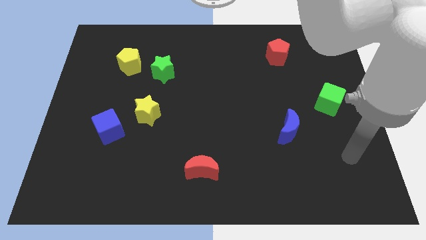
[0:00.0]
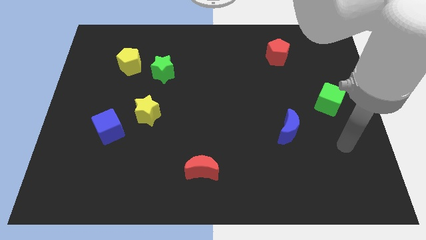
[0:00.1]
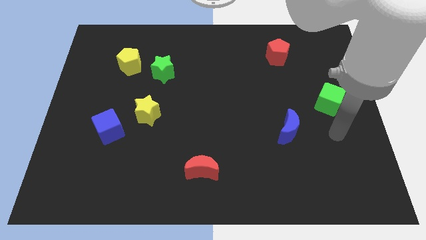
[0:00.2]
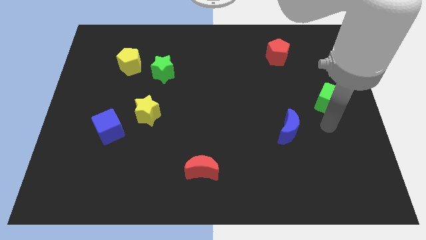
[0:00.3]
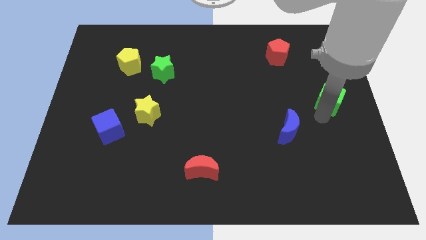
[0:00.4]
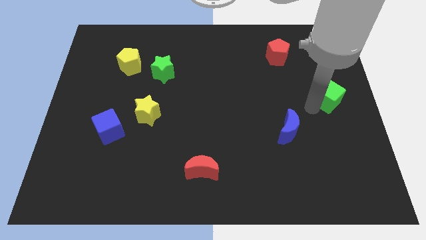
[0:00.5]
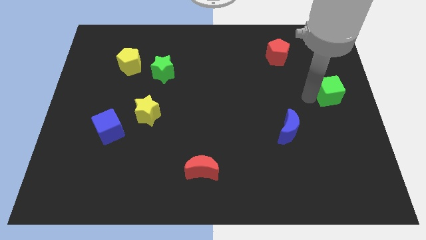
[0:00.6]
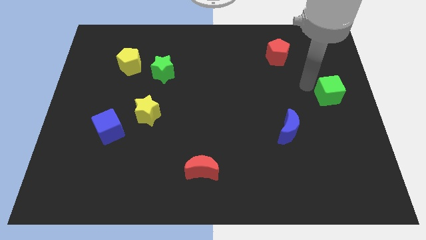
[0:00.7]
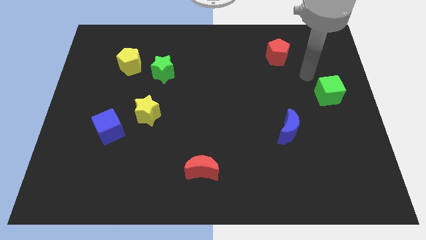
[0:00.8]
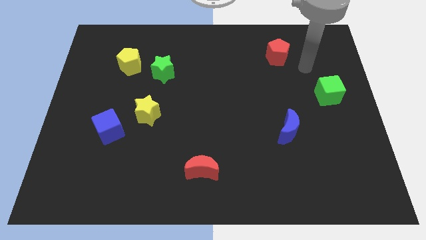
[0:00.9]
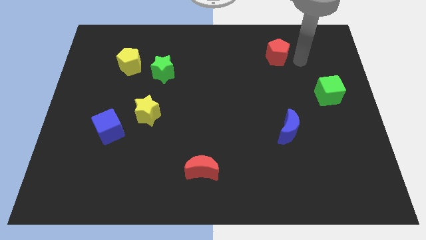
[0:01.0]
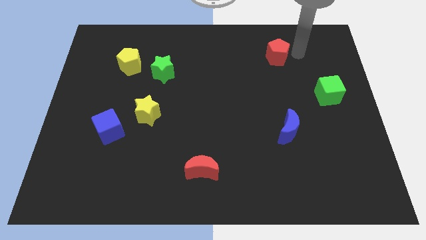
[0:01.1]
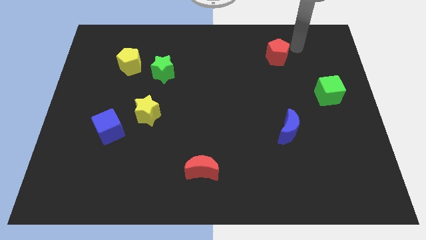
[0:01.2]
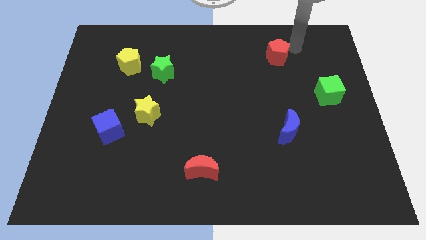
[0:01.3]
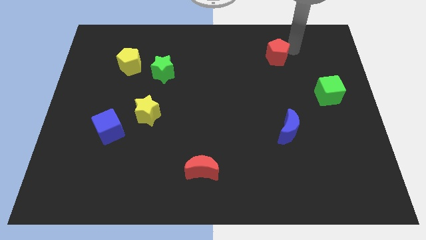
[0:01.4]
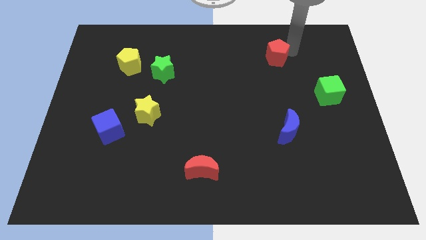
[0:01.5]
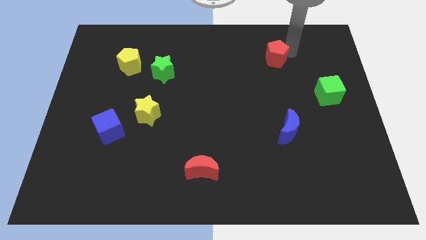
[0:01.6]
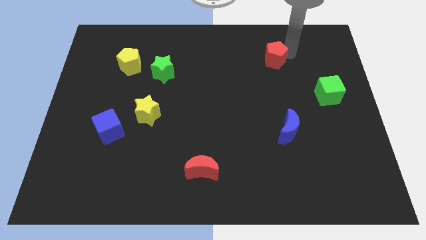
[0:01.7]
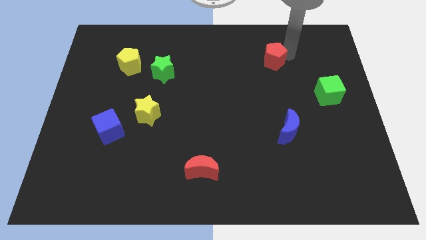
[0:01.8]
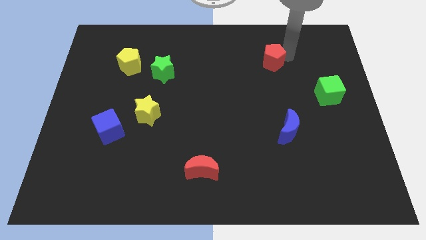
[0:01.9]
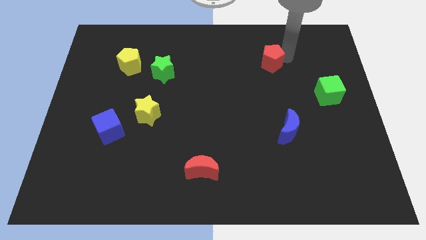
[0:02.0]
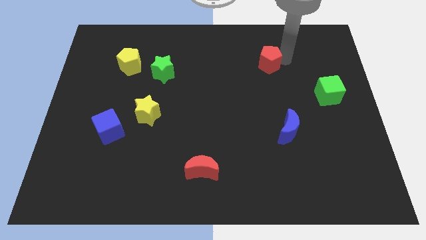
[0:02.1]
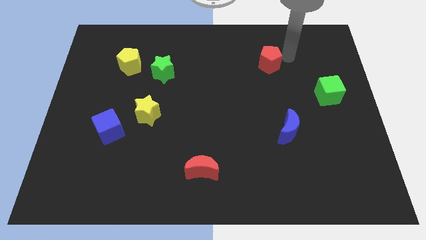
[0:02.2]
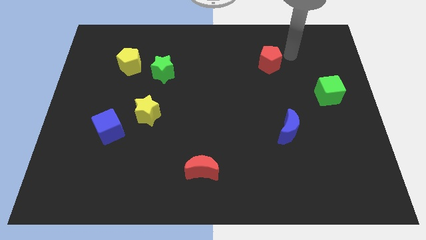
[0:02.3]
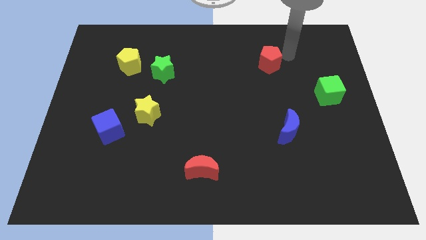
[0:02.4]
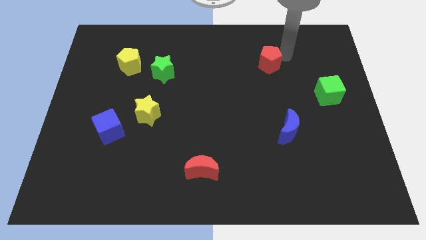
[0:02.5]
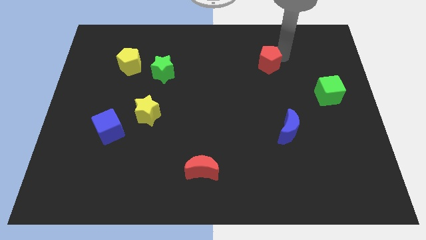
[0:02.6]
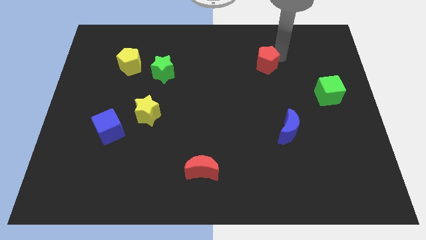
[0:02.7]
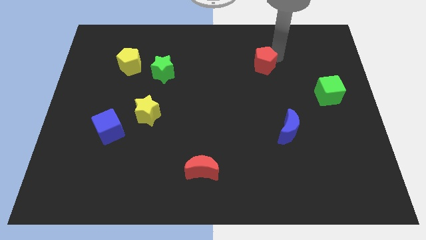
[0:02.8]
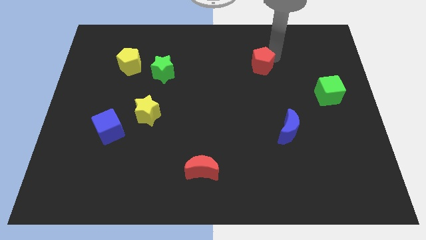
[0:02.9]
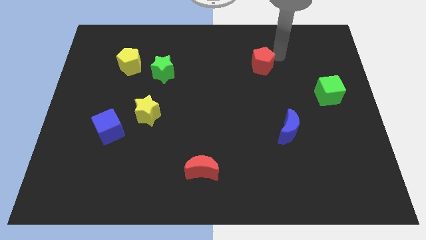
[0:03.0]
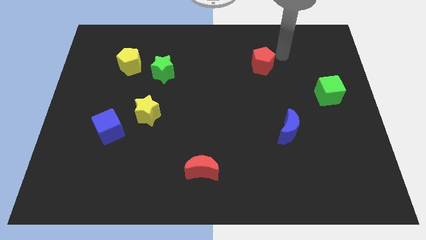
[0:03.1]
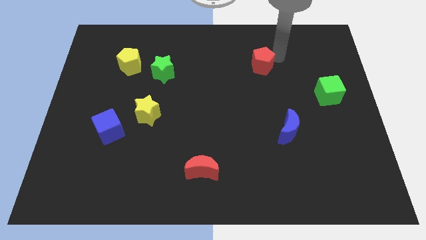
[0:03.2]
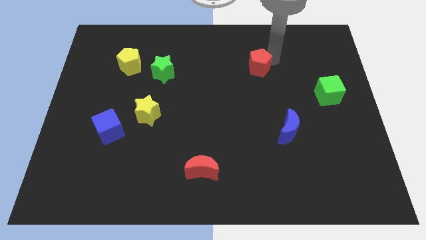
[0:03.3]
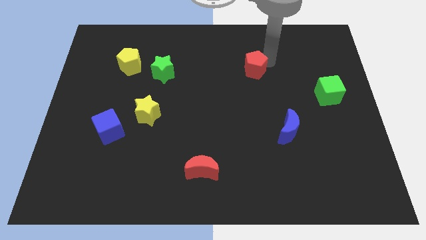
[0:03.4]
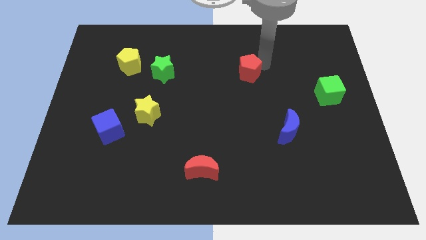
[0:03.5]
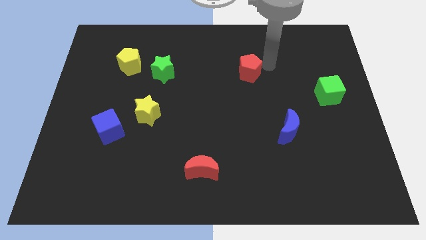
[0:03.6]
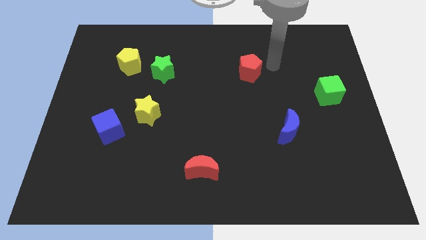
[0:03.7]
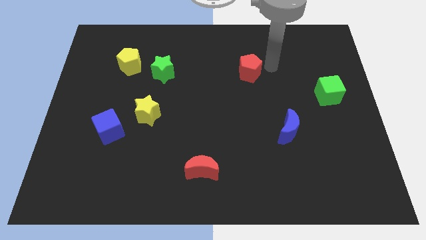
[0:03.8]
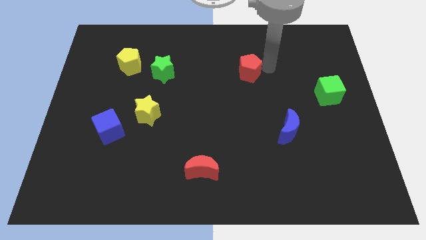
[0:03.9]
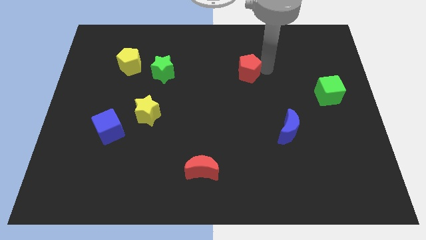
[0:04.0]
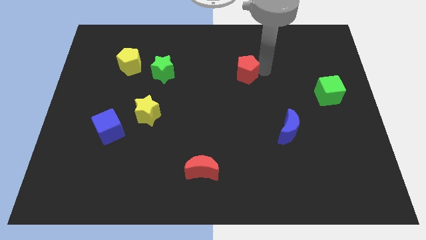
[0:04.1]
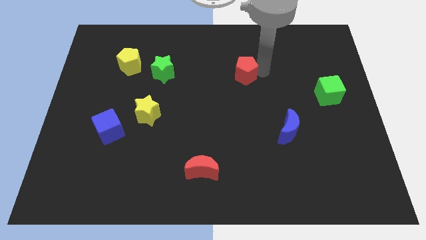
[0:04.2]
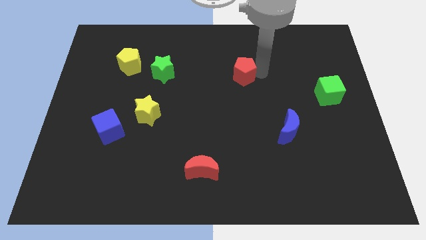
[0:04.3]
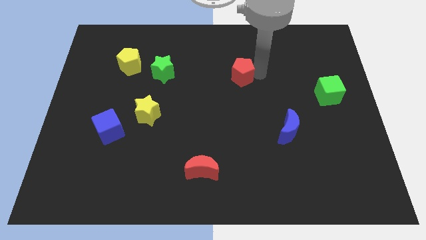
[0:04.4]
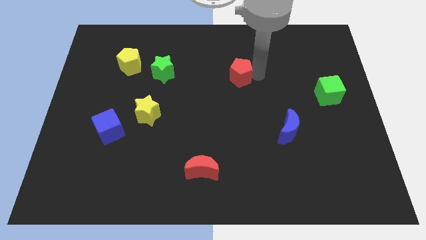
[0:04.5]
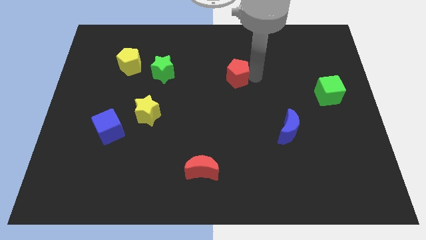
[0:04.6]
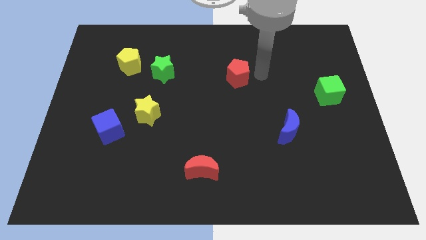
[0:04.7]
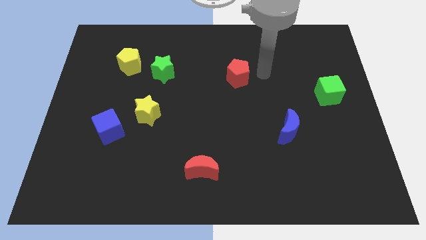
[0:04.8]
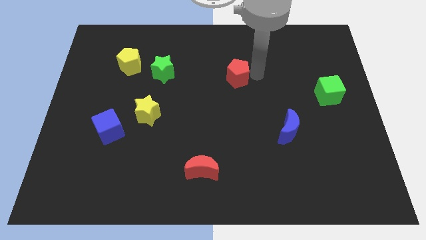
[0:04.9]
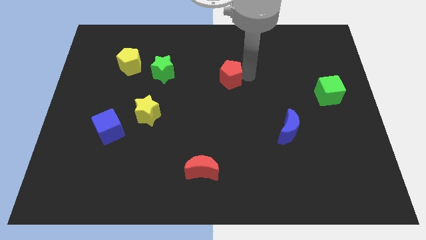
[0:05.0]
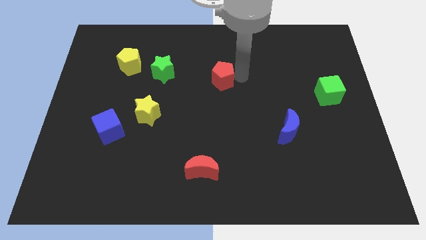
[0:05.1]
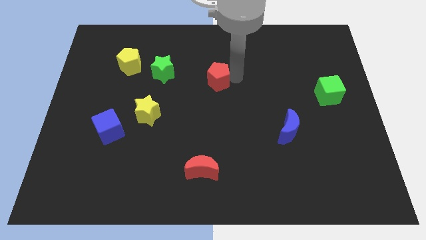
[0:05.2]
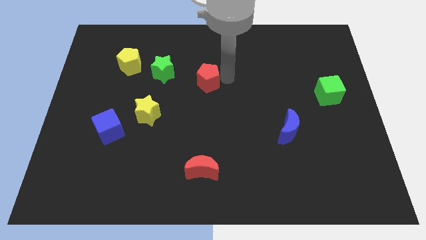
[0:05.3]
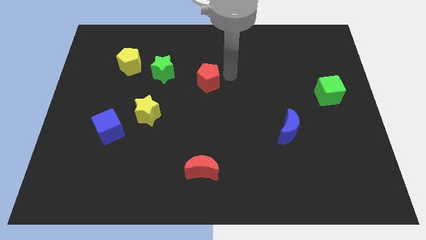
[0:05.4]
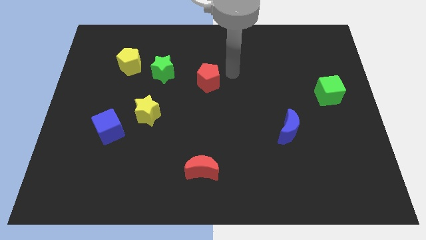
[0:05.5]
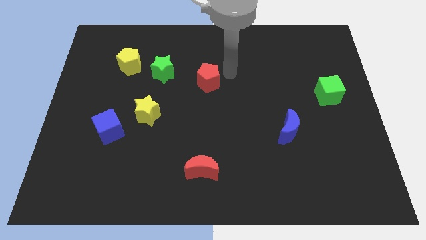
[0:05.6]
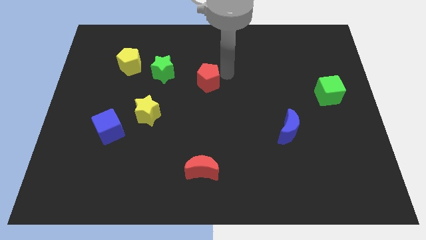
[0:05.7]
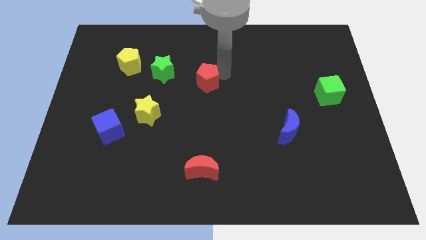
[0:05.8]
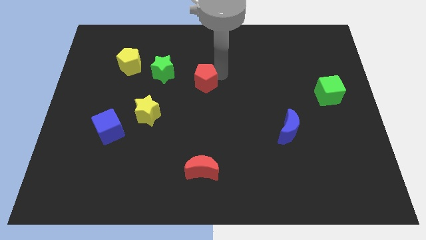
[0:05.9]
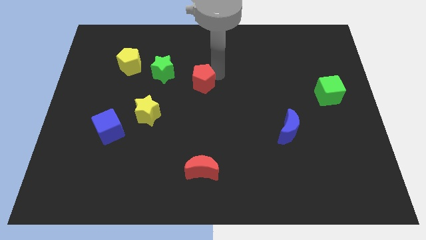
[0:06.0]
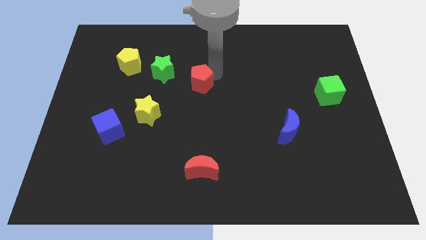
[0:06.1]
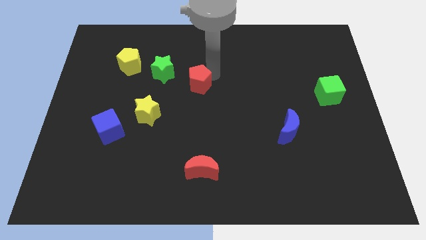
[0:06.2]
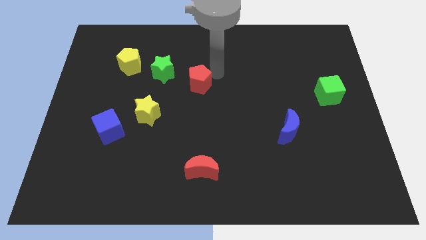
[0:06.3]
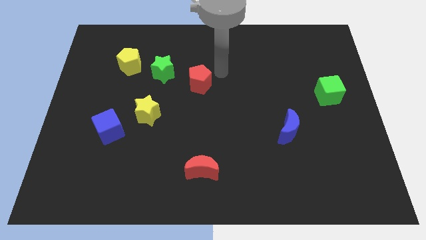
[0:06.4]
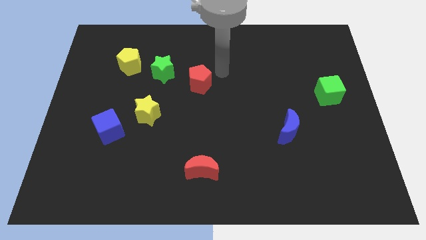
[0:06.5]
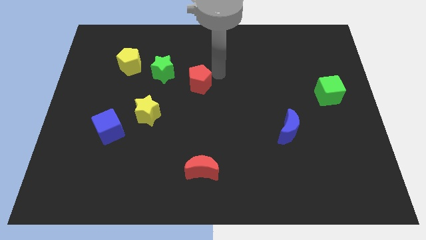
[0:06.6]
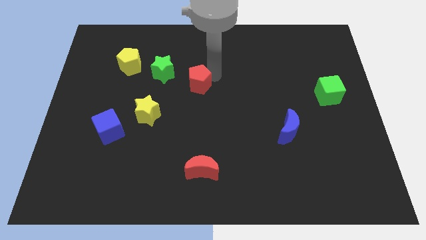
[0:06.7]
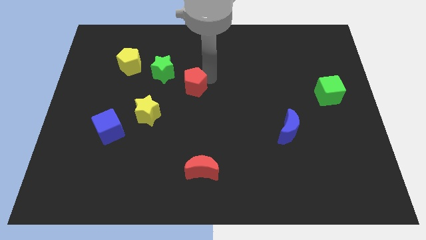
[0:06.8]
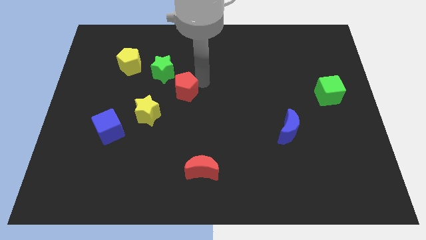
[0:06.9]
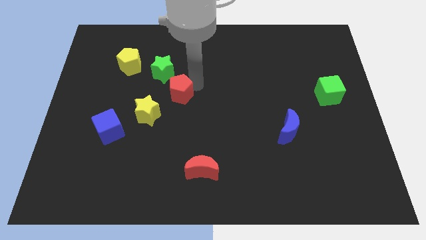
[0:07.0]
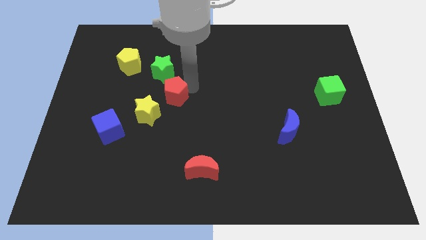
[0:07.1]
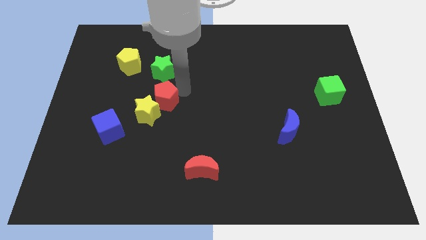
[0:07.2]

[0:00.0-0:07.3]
move the red pentagon towards the yellow star
